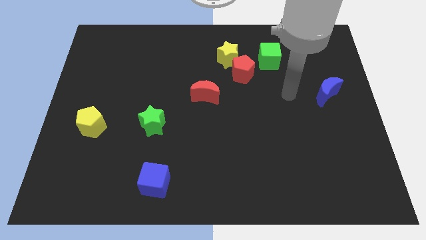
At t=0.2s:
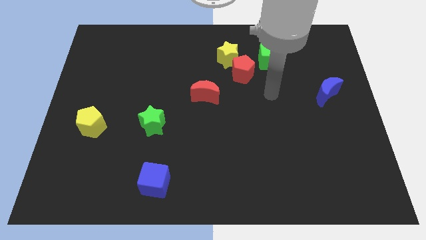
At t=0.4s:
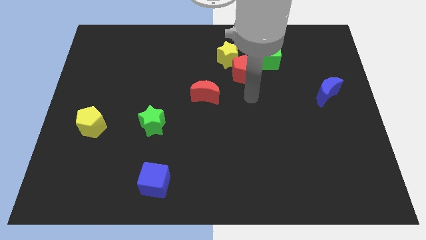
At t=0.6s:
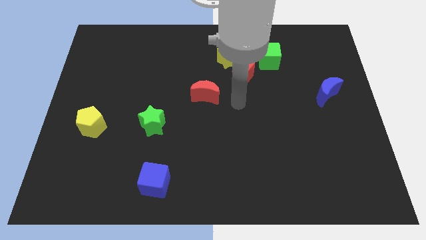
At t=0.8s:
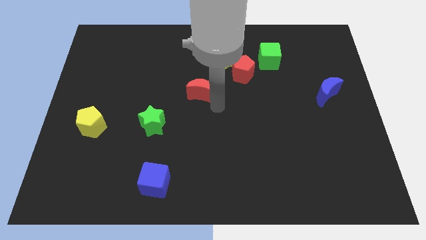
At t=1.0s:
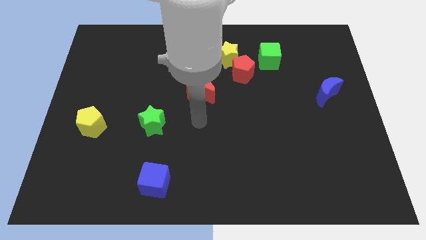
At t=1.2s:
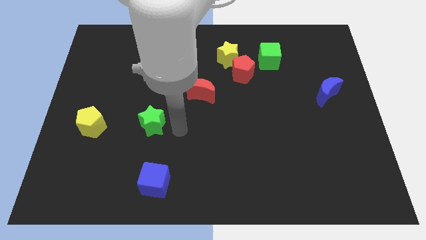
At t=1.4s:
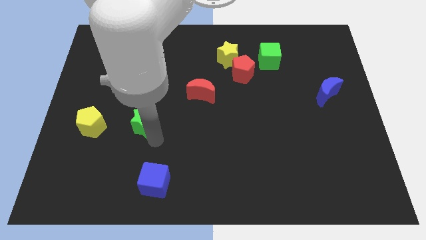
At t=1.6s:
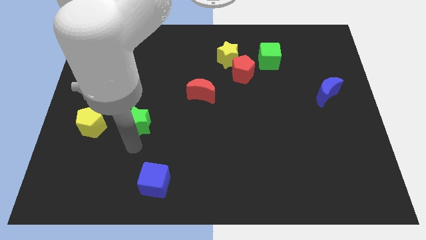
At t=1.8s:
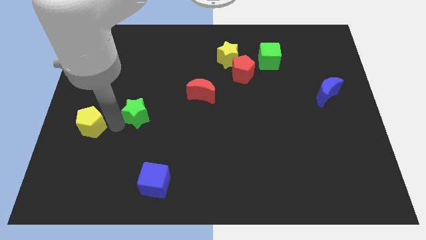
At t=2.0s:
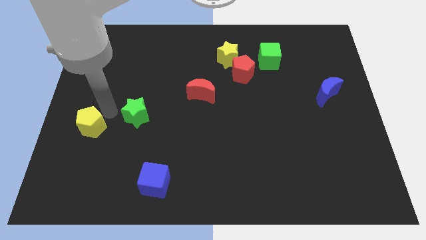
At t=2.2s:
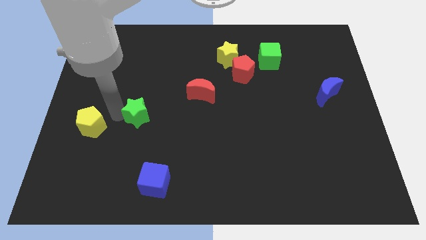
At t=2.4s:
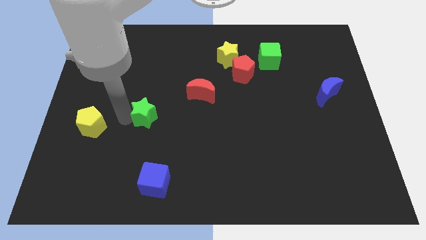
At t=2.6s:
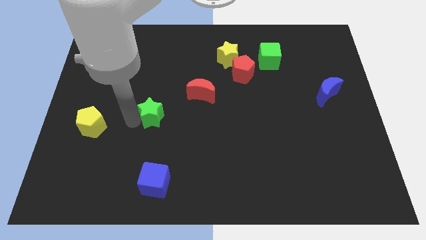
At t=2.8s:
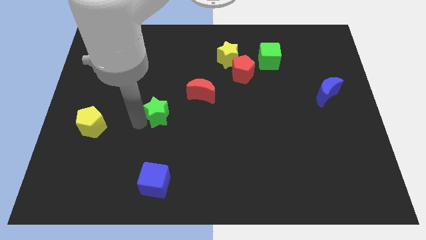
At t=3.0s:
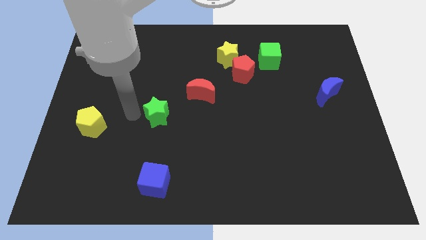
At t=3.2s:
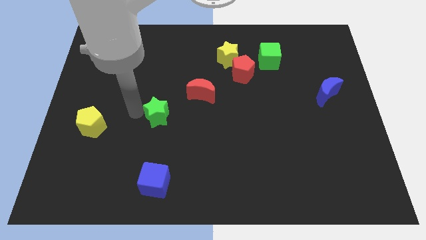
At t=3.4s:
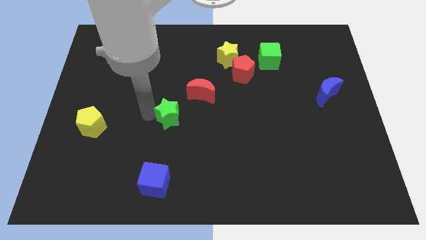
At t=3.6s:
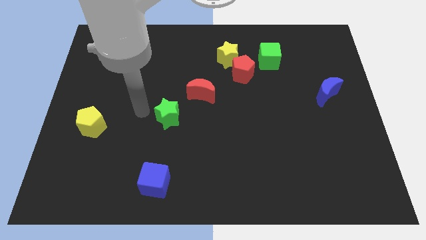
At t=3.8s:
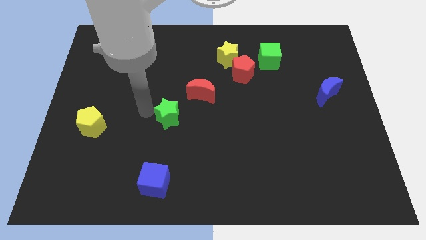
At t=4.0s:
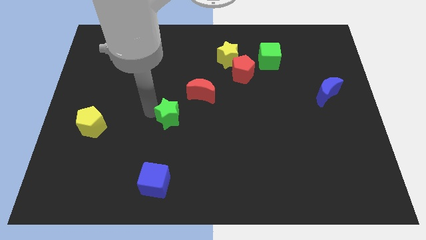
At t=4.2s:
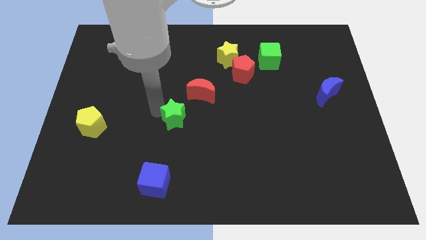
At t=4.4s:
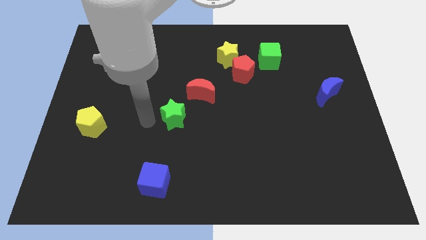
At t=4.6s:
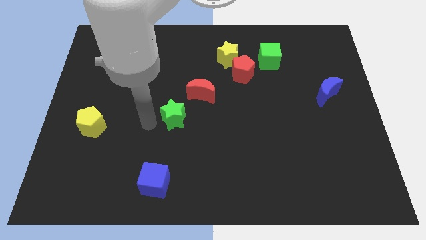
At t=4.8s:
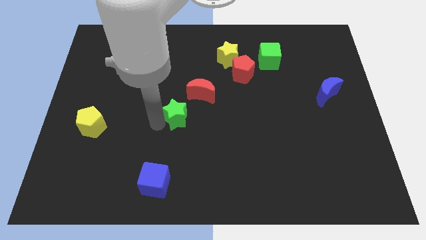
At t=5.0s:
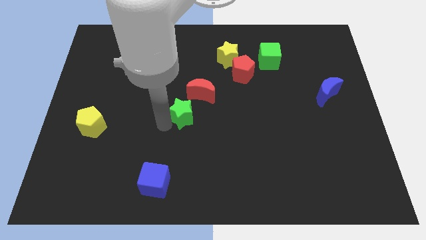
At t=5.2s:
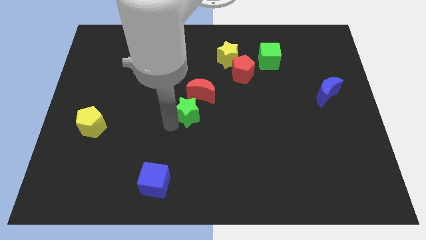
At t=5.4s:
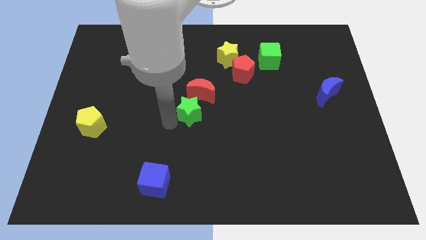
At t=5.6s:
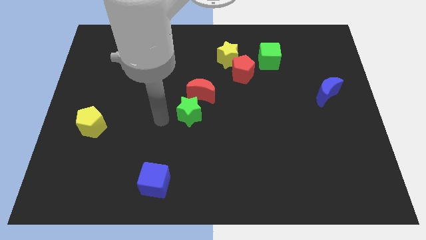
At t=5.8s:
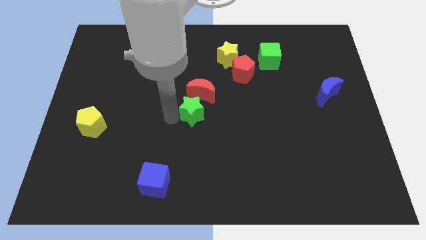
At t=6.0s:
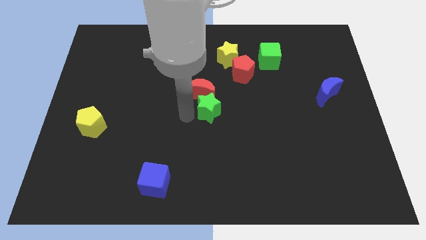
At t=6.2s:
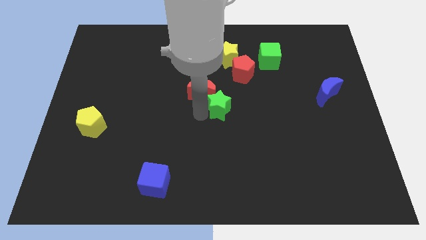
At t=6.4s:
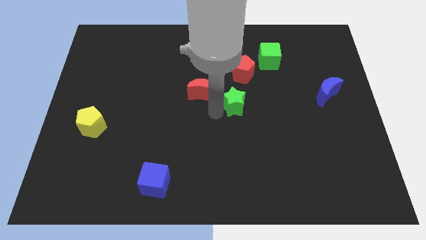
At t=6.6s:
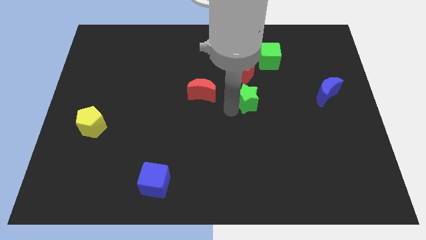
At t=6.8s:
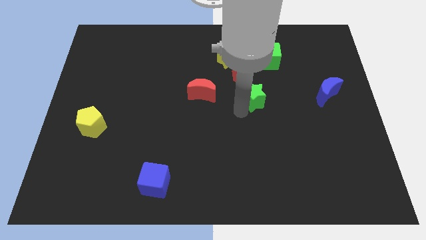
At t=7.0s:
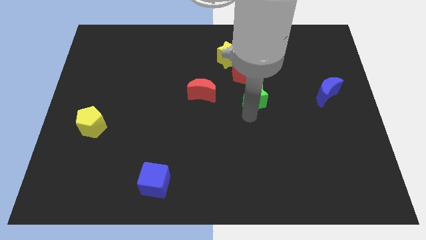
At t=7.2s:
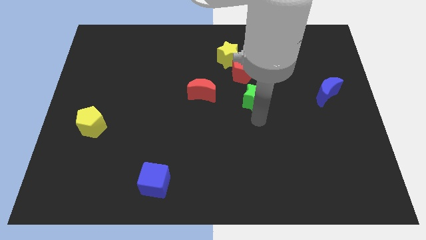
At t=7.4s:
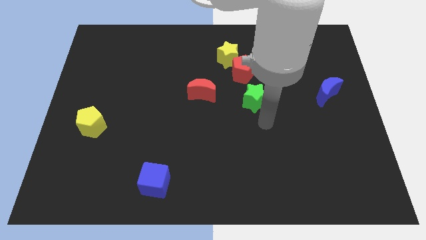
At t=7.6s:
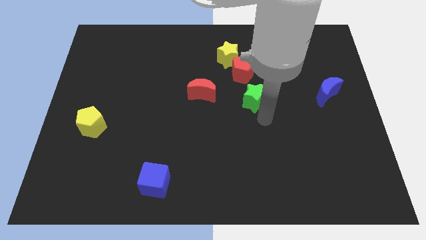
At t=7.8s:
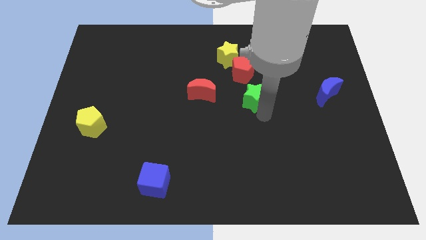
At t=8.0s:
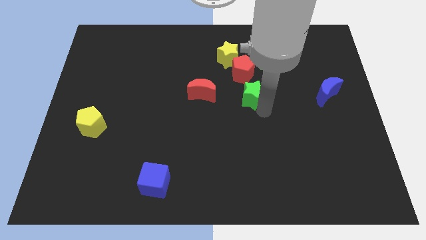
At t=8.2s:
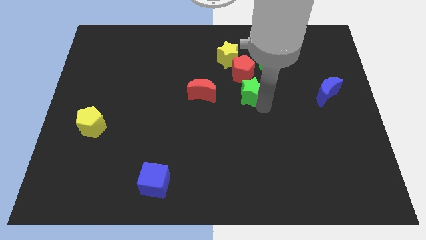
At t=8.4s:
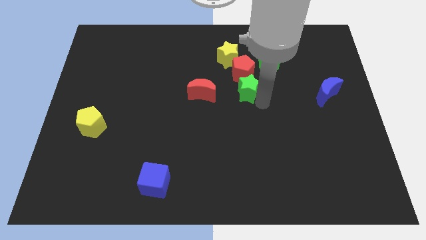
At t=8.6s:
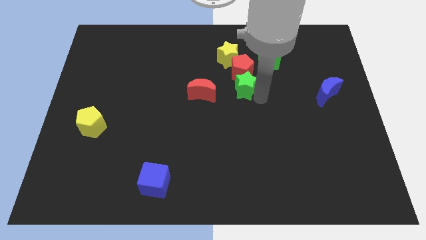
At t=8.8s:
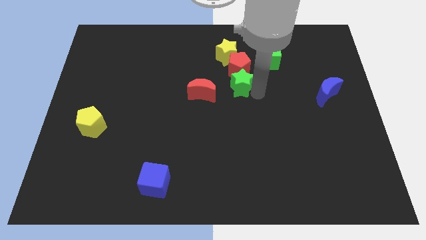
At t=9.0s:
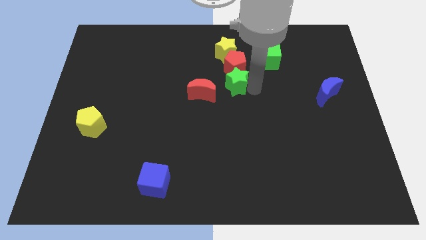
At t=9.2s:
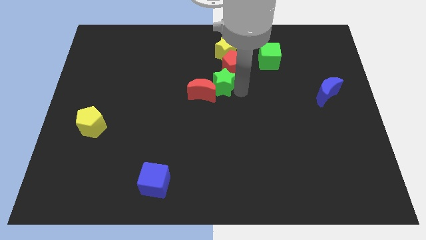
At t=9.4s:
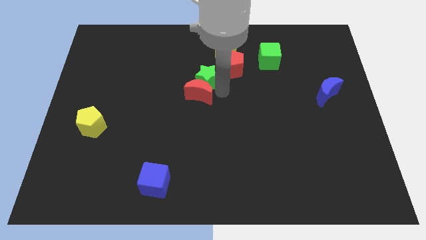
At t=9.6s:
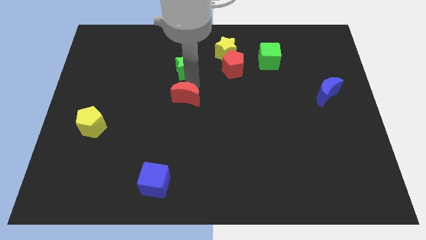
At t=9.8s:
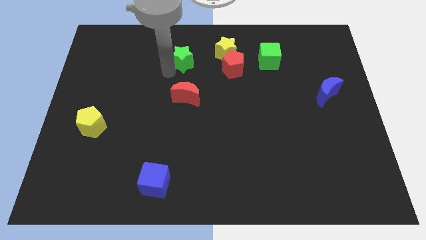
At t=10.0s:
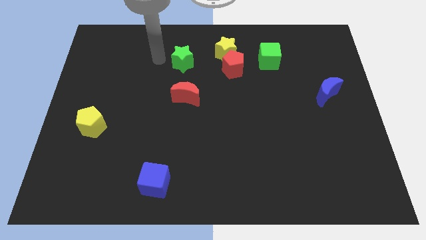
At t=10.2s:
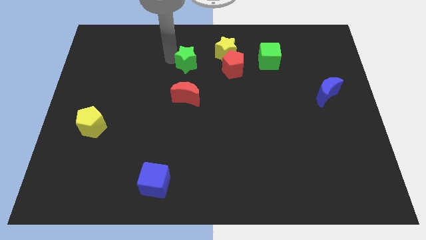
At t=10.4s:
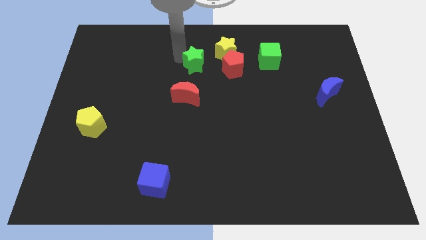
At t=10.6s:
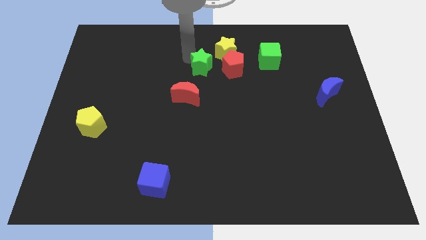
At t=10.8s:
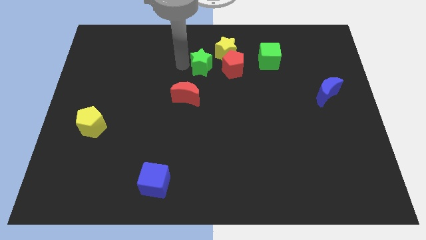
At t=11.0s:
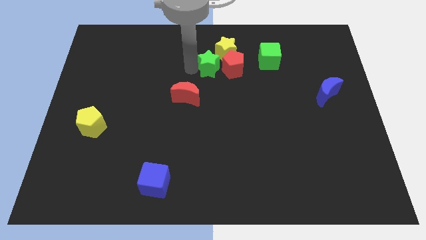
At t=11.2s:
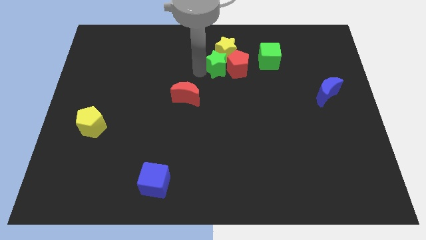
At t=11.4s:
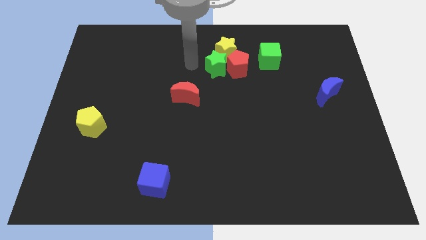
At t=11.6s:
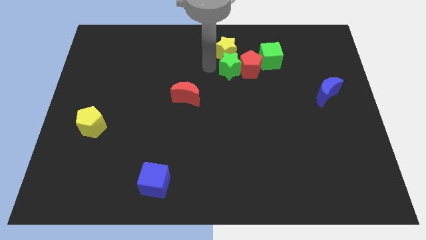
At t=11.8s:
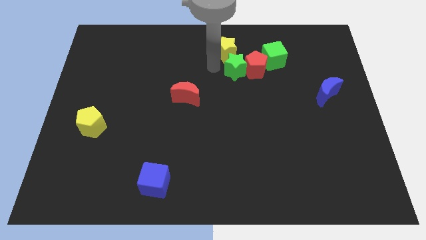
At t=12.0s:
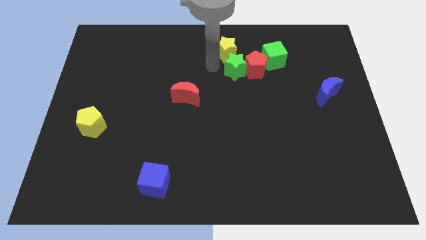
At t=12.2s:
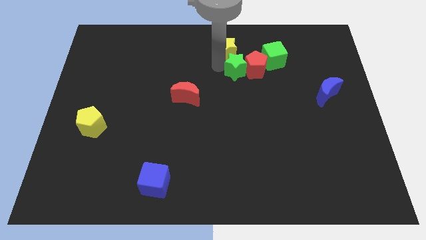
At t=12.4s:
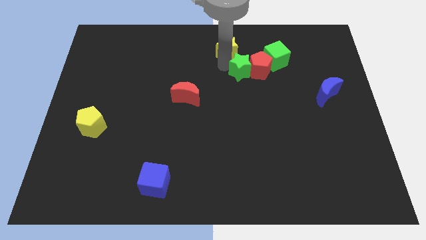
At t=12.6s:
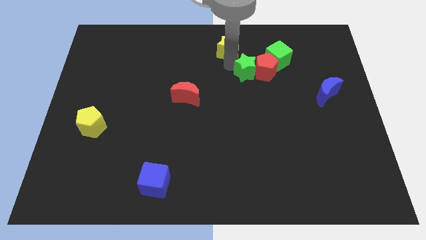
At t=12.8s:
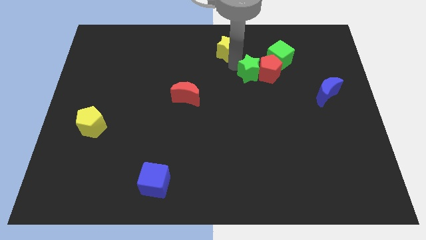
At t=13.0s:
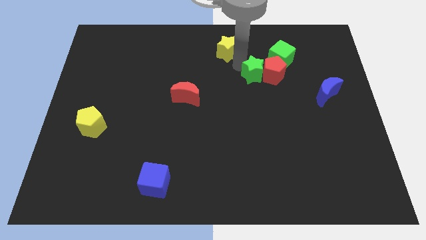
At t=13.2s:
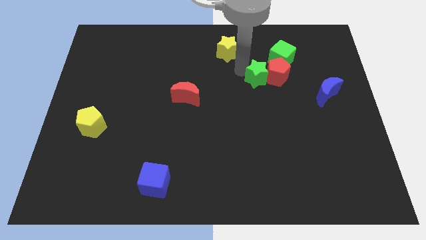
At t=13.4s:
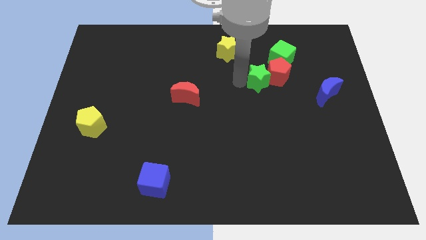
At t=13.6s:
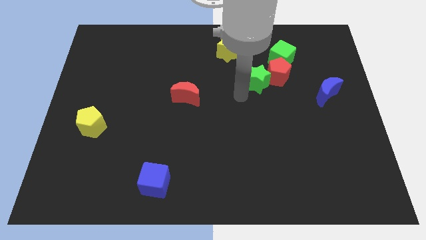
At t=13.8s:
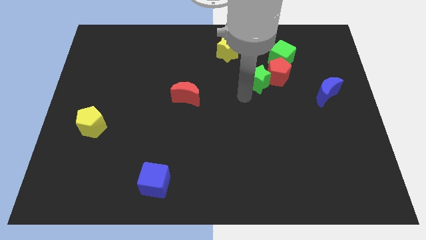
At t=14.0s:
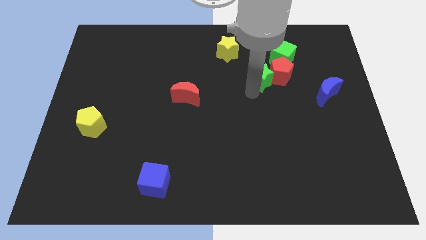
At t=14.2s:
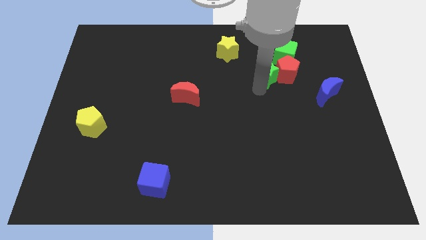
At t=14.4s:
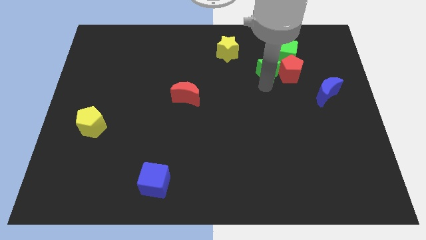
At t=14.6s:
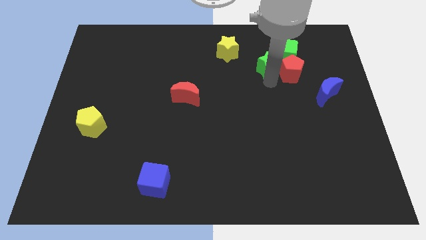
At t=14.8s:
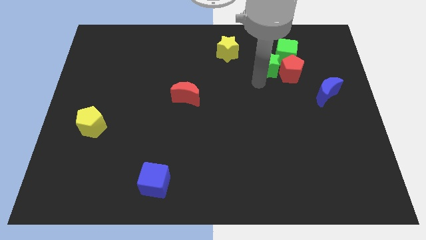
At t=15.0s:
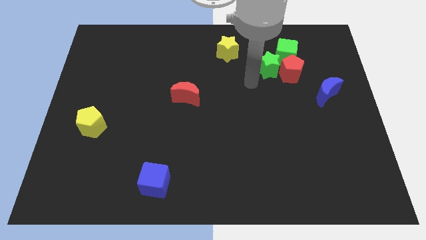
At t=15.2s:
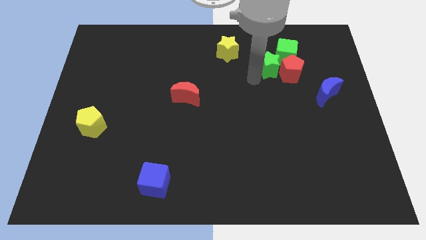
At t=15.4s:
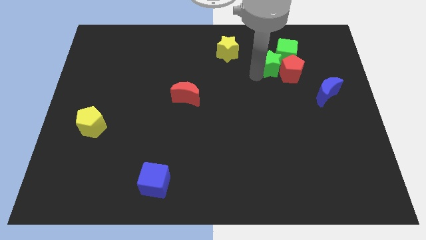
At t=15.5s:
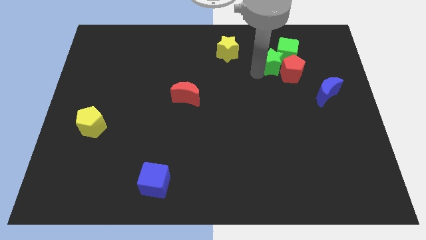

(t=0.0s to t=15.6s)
push the green star towards the green cube
